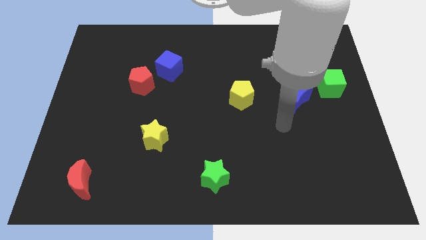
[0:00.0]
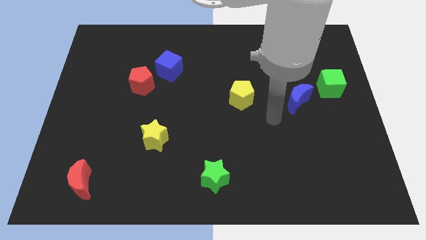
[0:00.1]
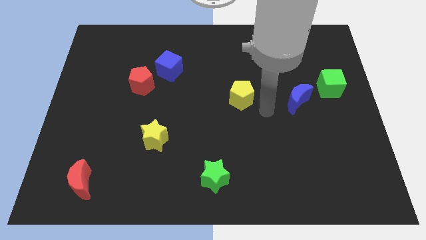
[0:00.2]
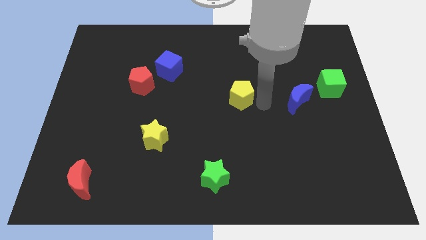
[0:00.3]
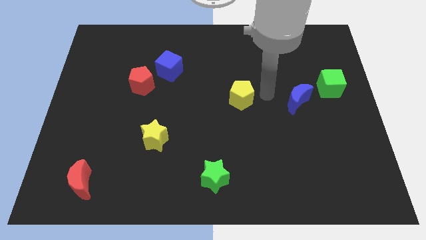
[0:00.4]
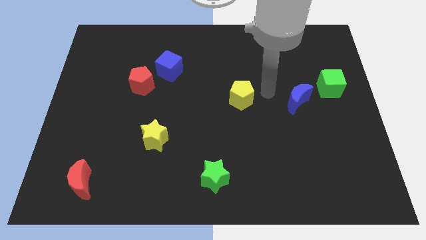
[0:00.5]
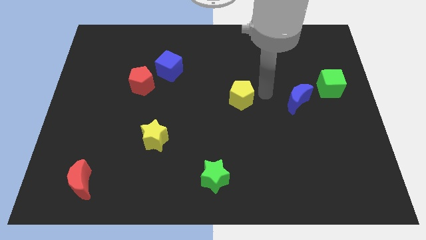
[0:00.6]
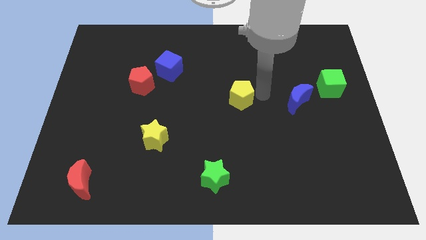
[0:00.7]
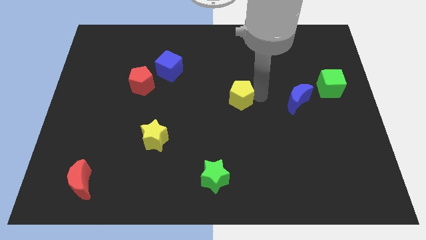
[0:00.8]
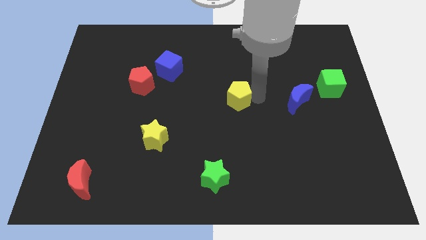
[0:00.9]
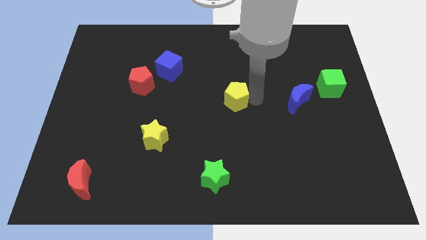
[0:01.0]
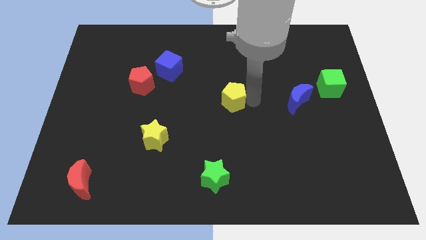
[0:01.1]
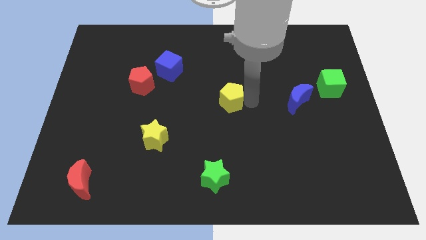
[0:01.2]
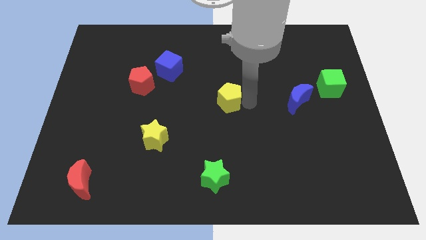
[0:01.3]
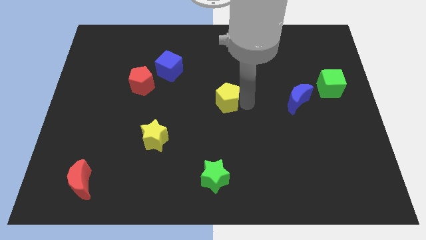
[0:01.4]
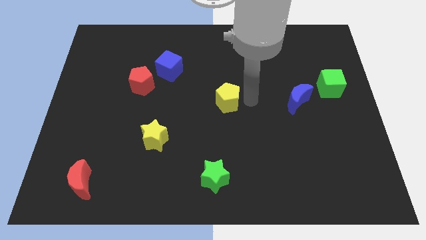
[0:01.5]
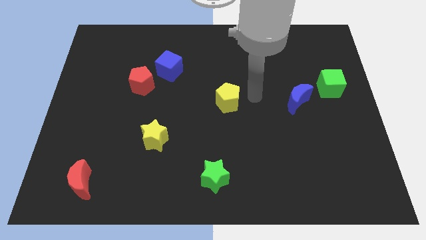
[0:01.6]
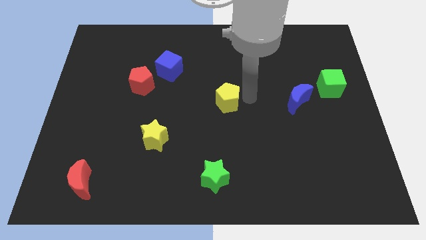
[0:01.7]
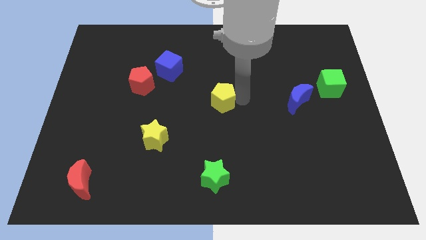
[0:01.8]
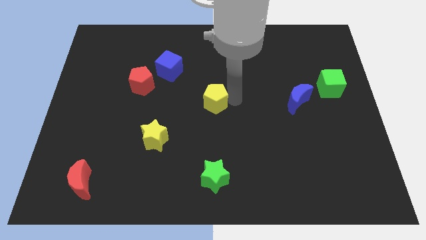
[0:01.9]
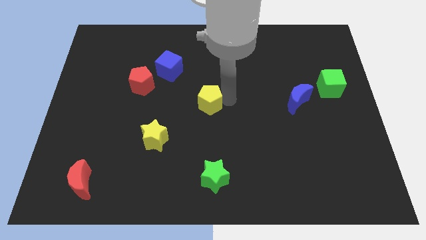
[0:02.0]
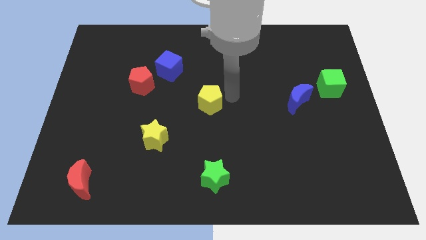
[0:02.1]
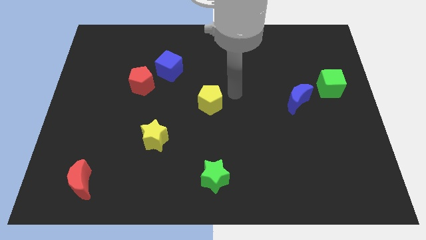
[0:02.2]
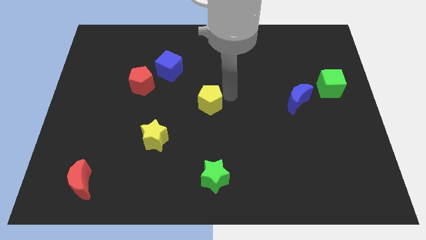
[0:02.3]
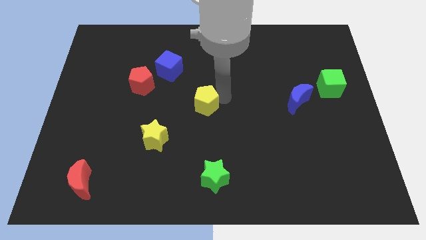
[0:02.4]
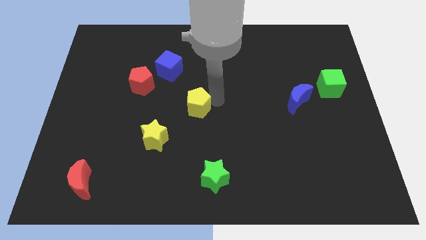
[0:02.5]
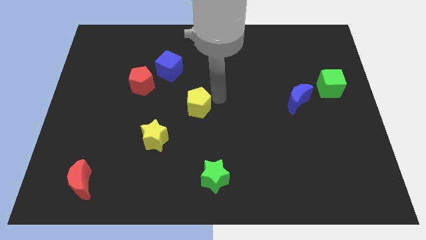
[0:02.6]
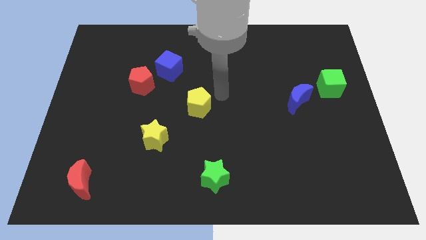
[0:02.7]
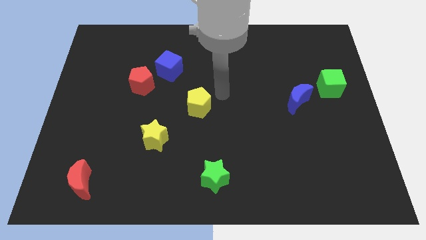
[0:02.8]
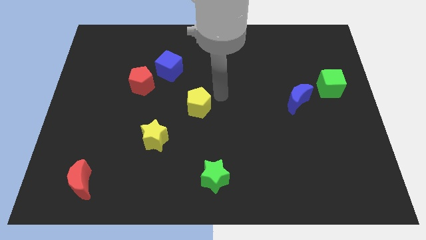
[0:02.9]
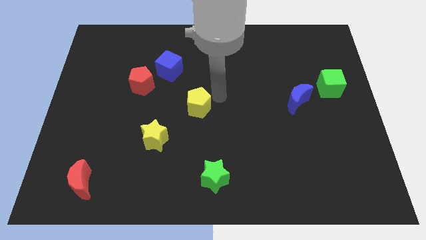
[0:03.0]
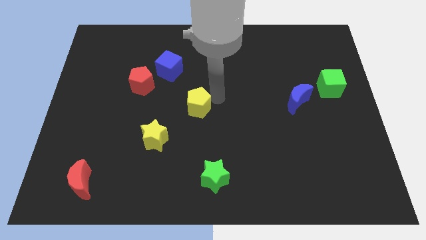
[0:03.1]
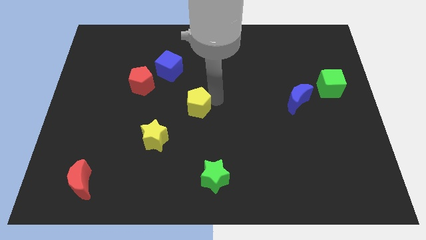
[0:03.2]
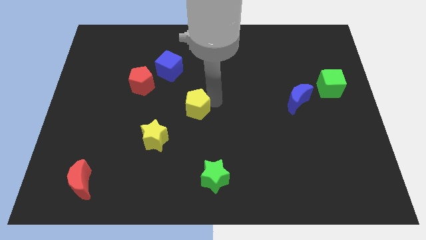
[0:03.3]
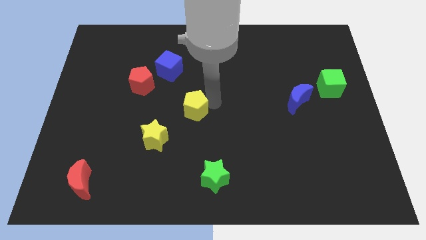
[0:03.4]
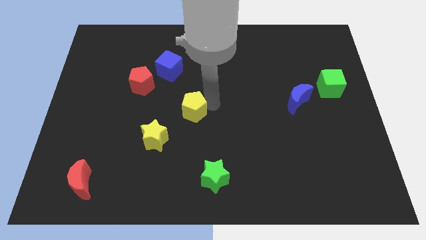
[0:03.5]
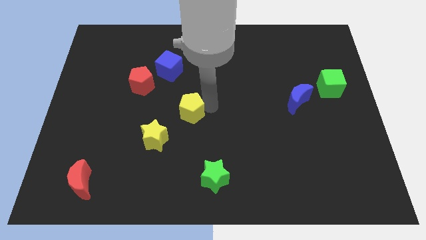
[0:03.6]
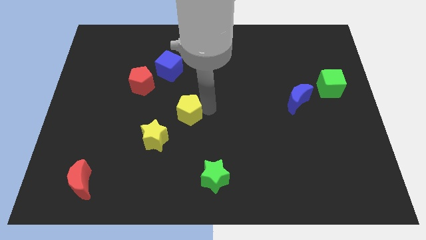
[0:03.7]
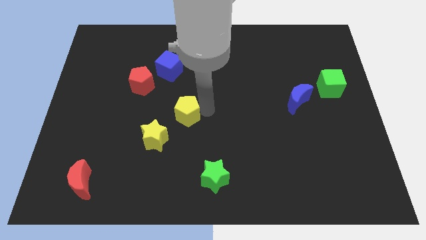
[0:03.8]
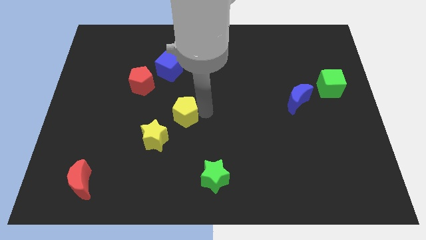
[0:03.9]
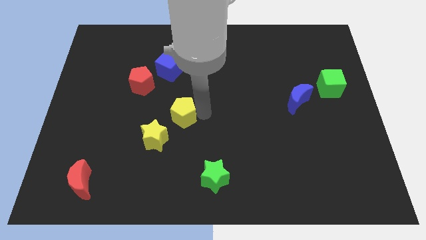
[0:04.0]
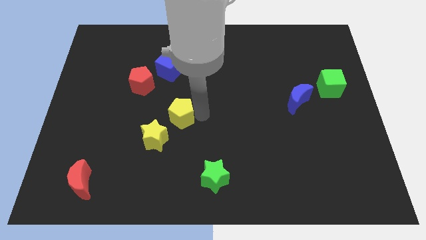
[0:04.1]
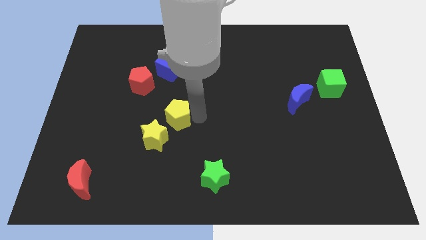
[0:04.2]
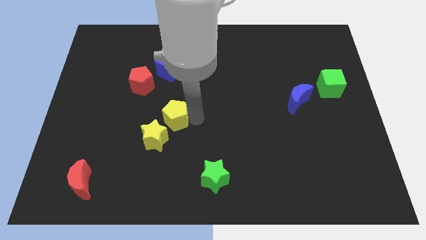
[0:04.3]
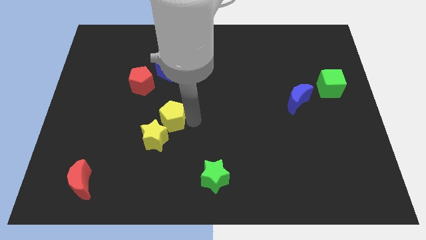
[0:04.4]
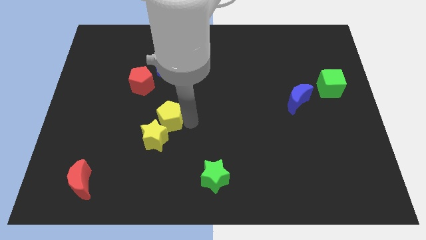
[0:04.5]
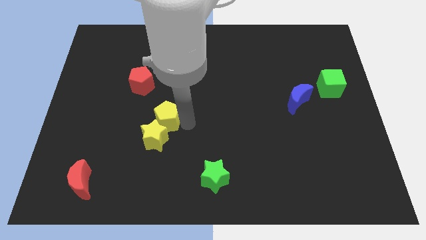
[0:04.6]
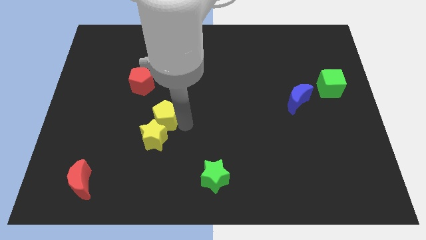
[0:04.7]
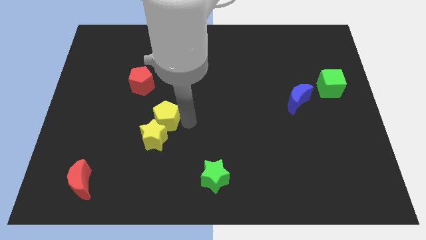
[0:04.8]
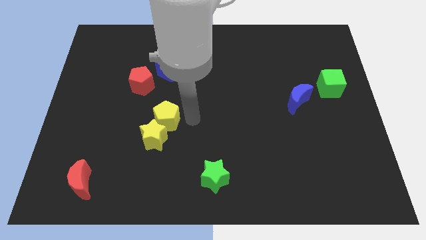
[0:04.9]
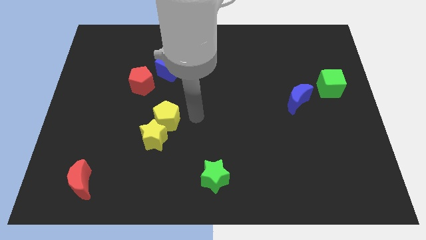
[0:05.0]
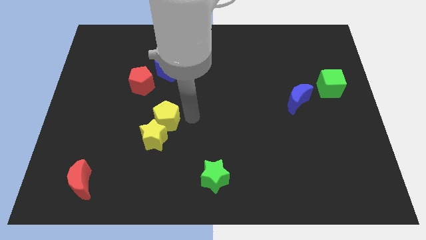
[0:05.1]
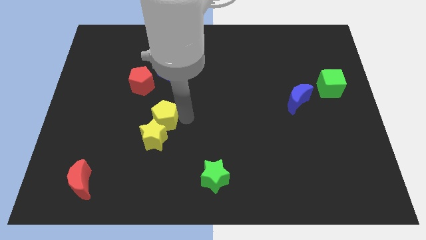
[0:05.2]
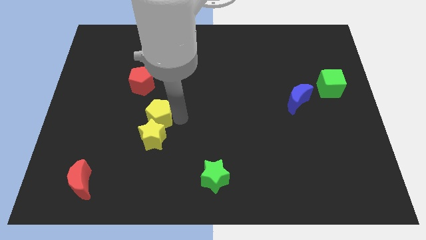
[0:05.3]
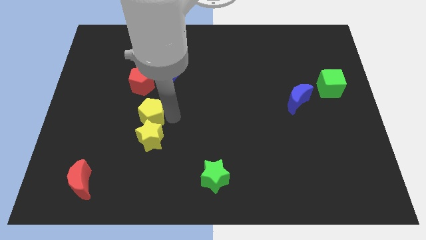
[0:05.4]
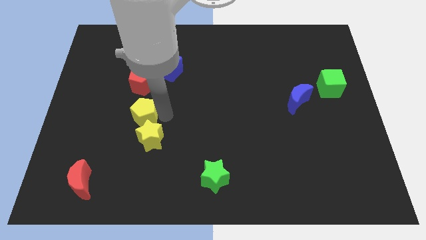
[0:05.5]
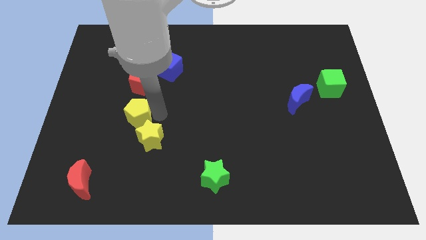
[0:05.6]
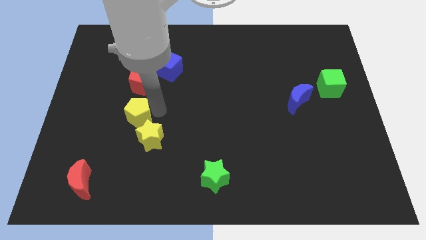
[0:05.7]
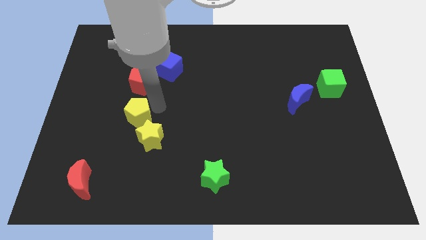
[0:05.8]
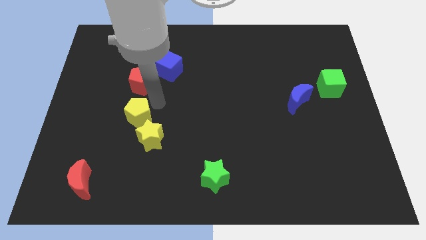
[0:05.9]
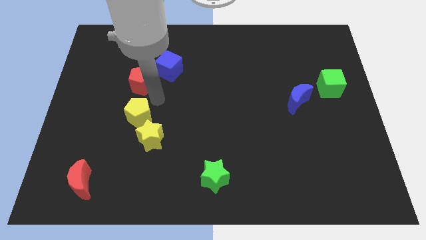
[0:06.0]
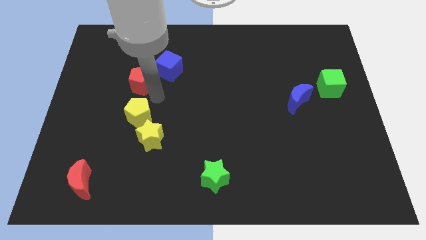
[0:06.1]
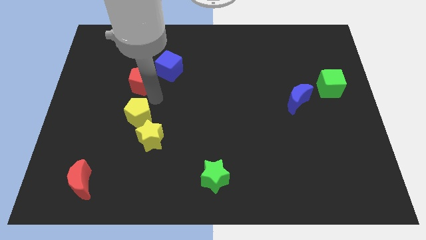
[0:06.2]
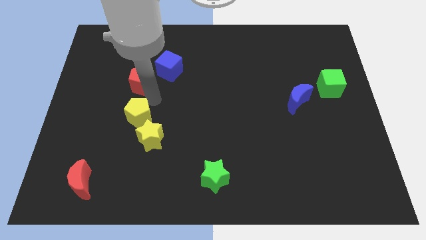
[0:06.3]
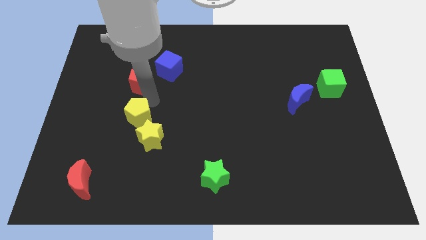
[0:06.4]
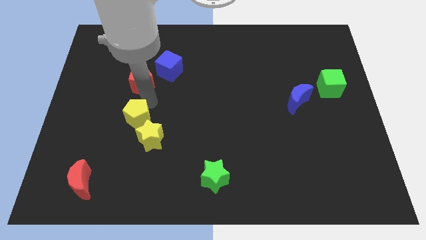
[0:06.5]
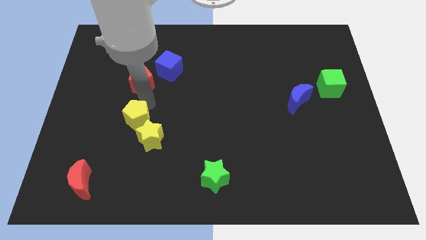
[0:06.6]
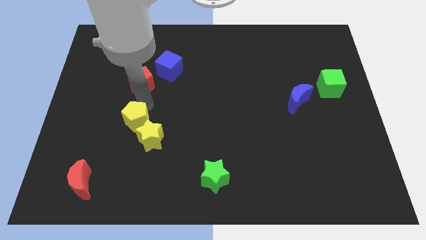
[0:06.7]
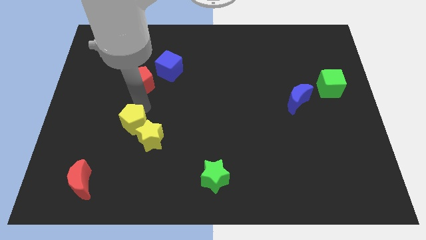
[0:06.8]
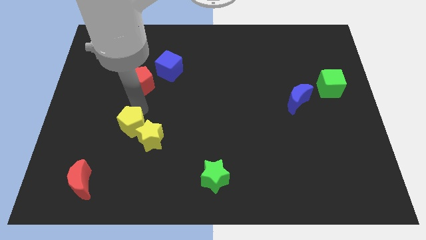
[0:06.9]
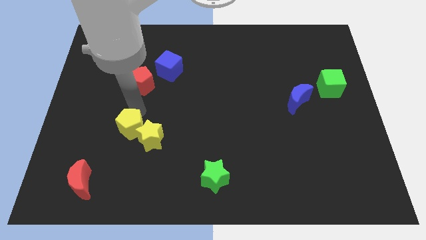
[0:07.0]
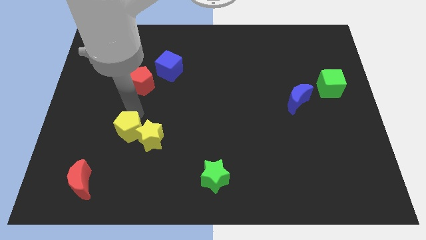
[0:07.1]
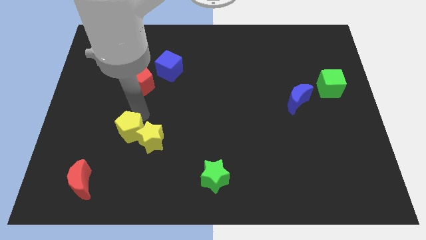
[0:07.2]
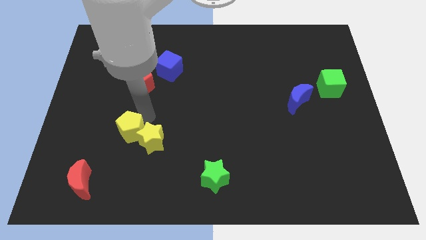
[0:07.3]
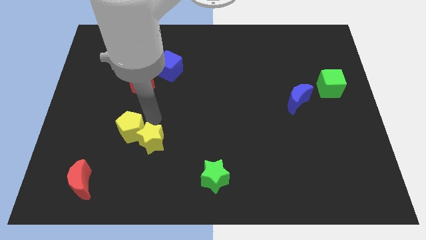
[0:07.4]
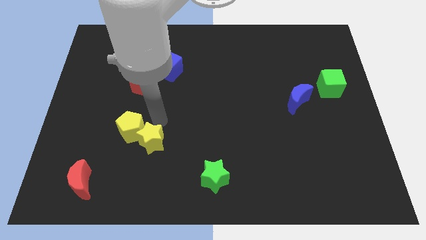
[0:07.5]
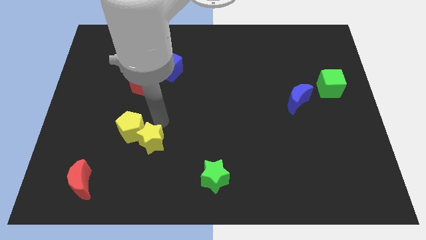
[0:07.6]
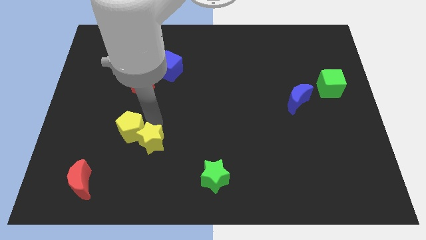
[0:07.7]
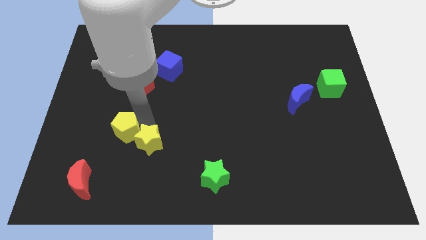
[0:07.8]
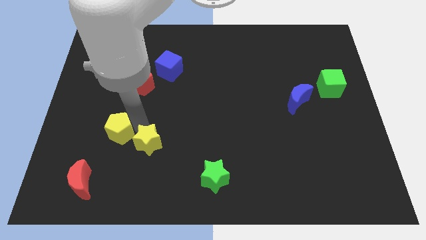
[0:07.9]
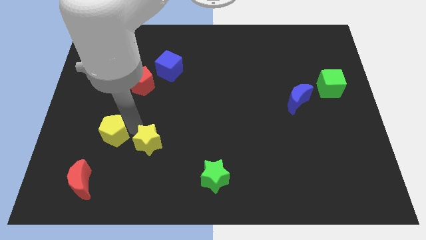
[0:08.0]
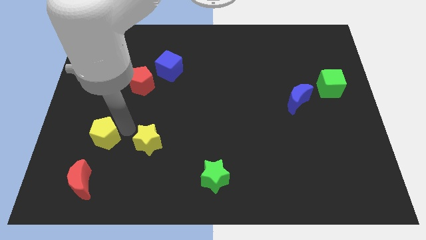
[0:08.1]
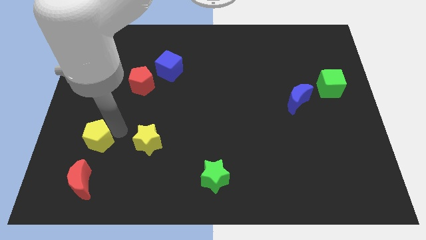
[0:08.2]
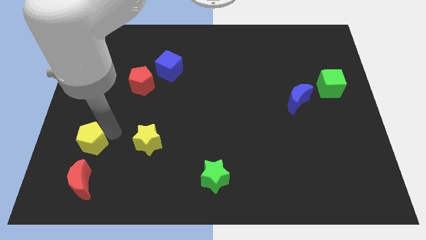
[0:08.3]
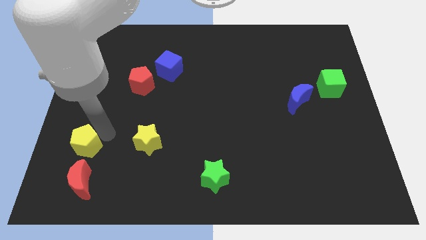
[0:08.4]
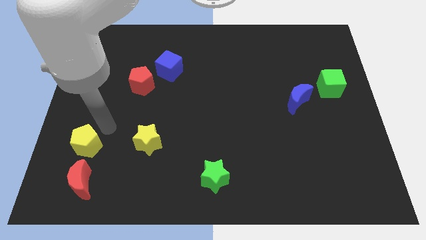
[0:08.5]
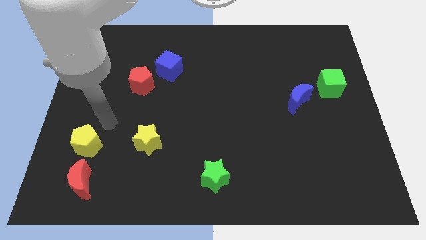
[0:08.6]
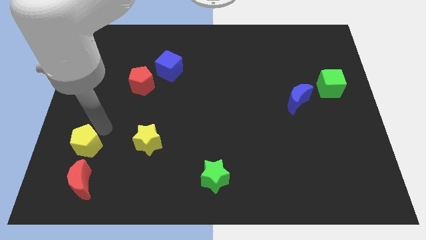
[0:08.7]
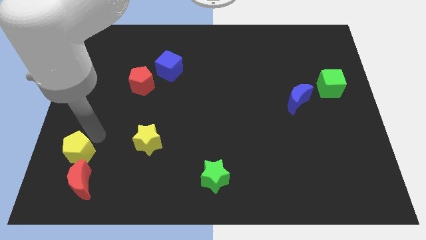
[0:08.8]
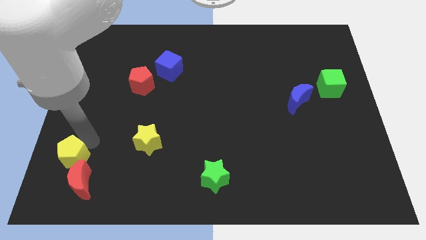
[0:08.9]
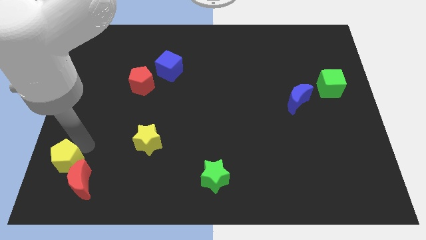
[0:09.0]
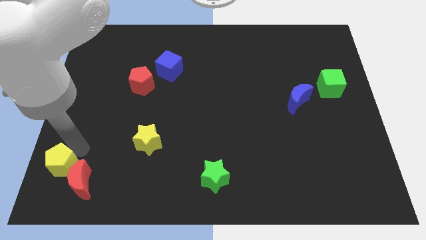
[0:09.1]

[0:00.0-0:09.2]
move the yellow pentagon to the bottom left of the board
